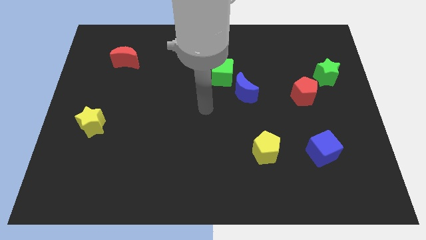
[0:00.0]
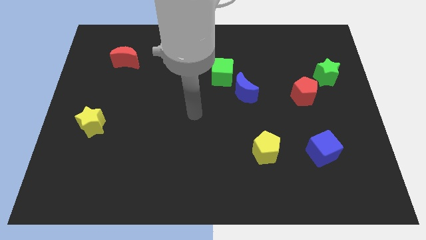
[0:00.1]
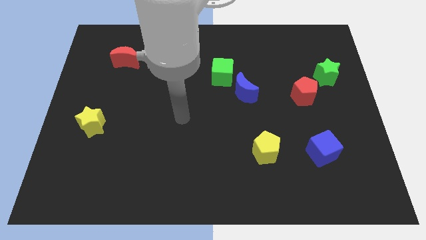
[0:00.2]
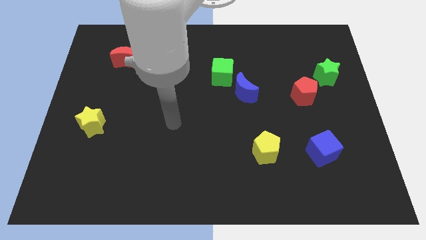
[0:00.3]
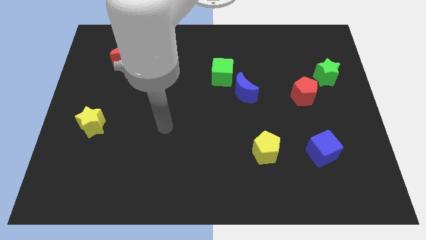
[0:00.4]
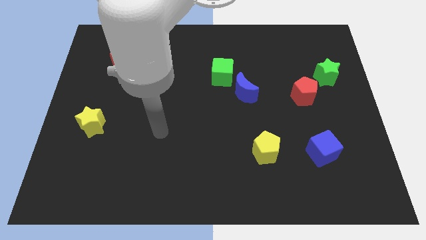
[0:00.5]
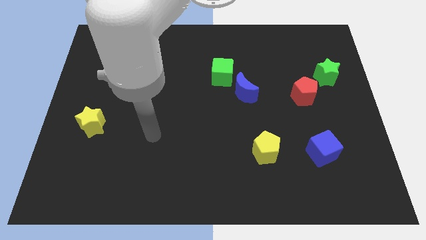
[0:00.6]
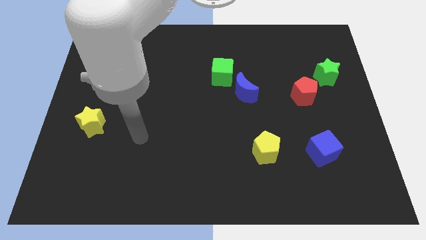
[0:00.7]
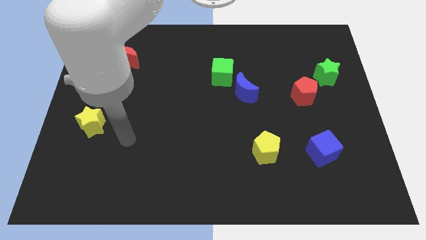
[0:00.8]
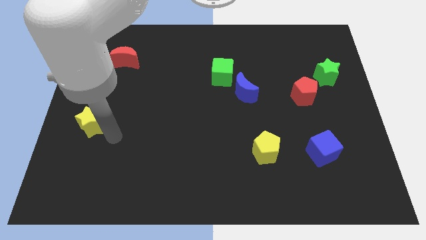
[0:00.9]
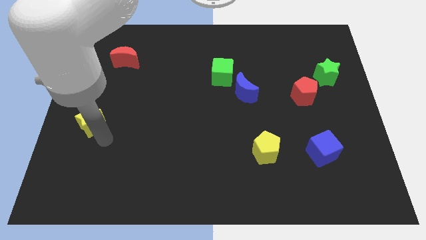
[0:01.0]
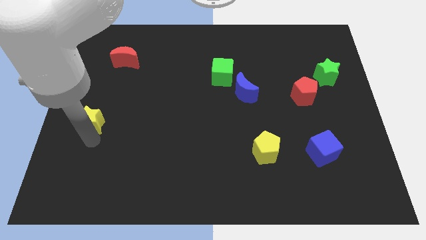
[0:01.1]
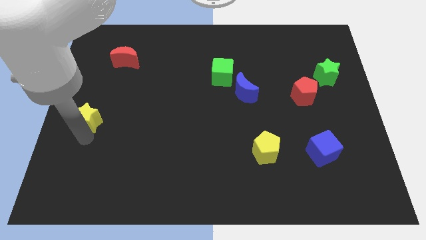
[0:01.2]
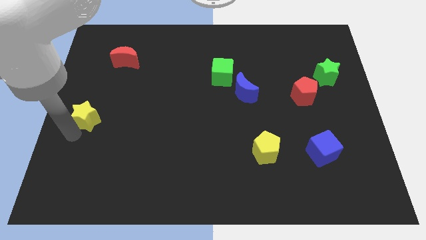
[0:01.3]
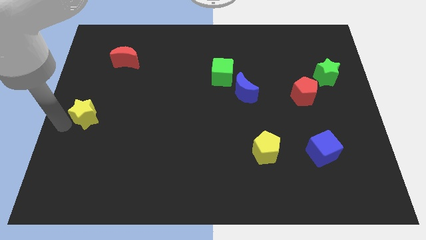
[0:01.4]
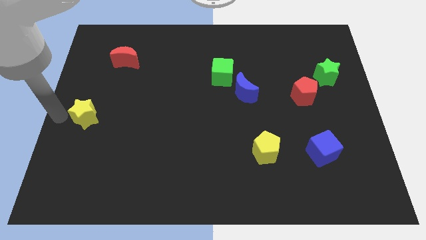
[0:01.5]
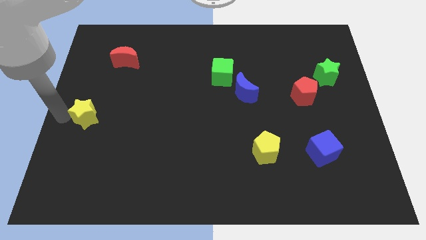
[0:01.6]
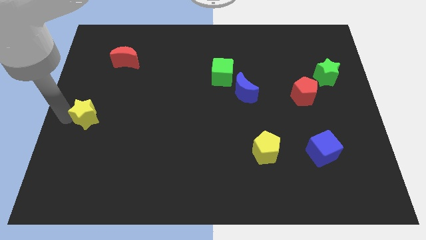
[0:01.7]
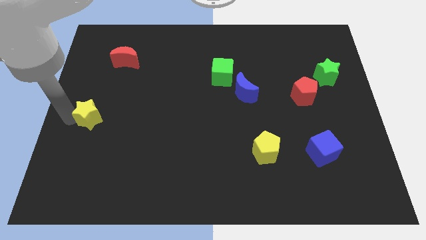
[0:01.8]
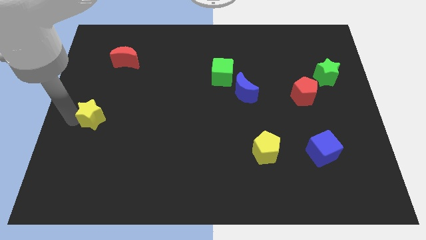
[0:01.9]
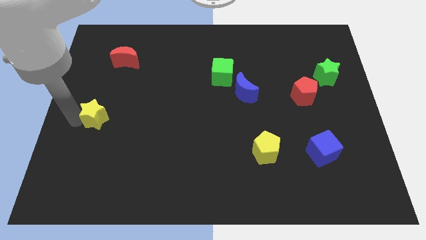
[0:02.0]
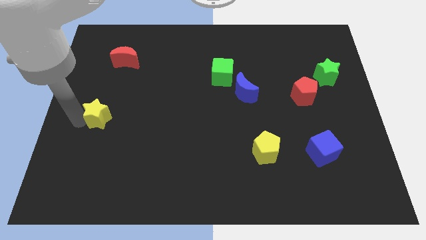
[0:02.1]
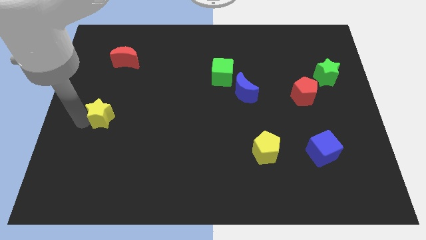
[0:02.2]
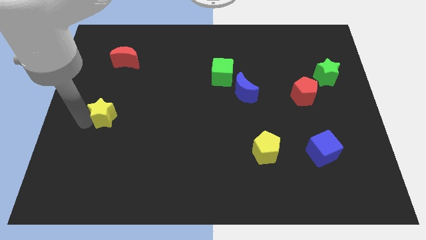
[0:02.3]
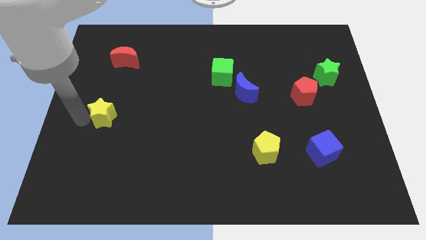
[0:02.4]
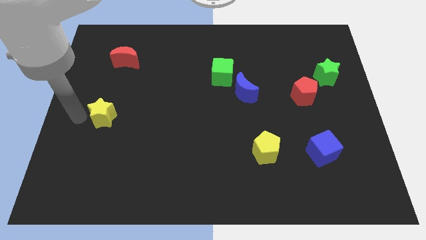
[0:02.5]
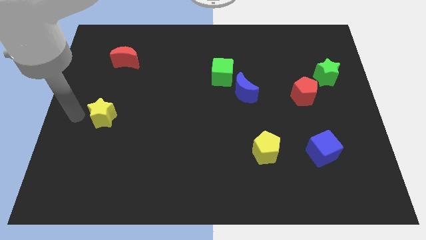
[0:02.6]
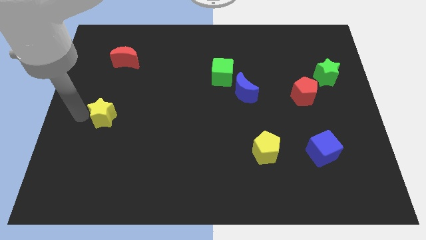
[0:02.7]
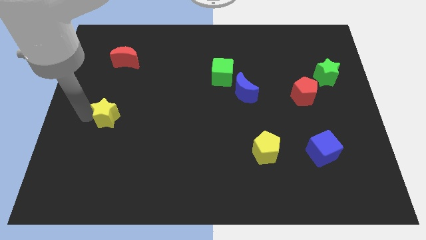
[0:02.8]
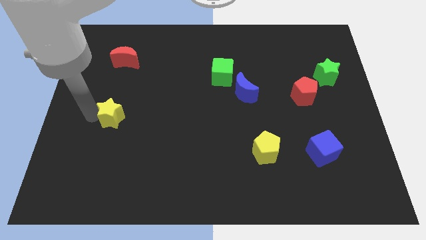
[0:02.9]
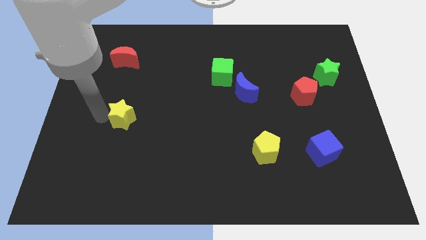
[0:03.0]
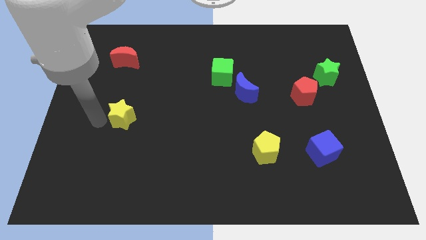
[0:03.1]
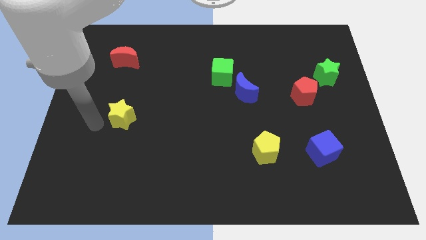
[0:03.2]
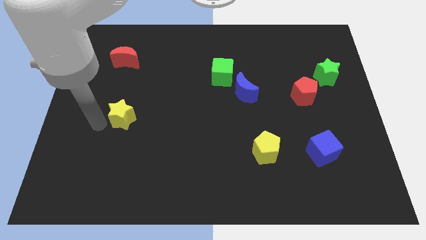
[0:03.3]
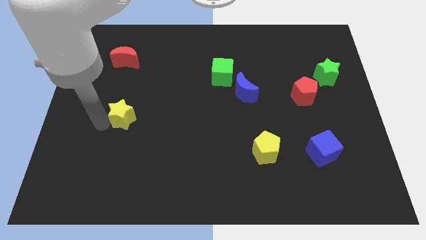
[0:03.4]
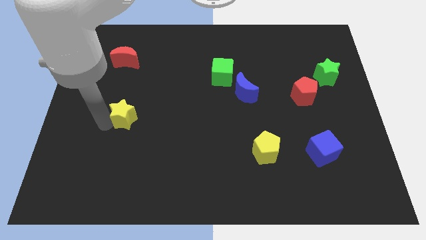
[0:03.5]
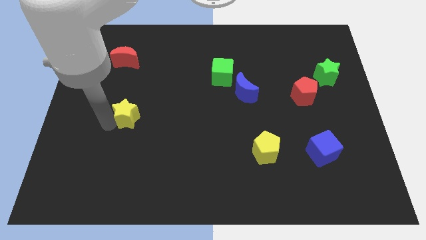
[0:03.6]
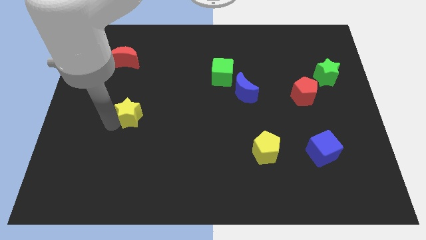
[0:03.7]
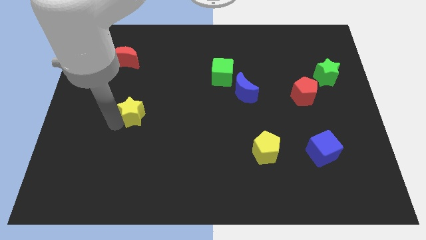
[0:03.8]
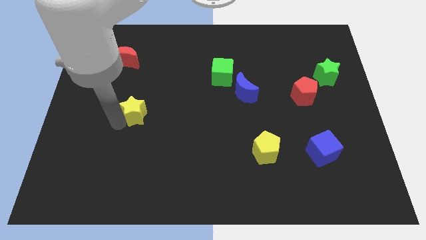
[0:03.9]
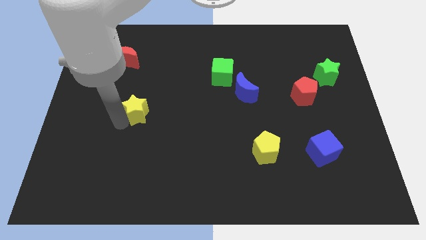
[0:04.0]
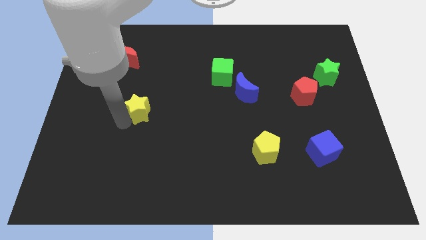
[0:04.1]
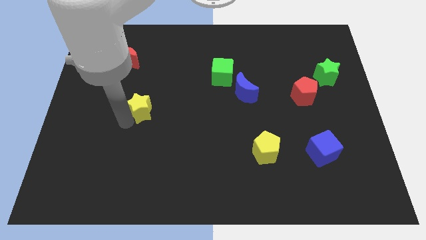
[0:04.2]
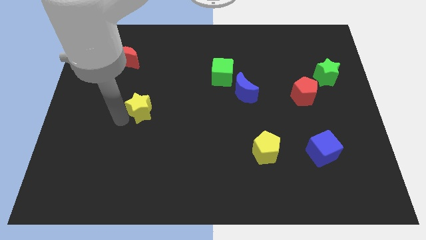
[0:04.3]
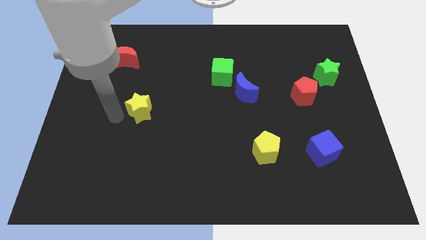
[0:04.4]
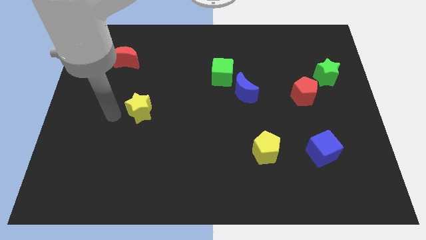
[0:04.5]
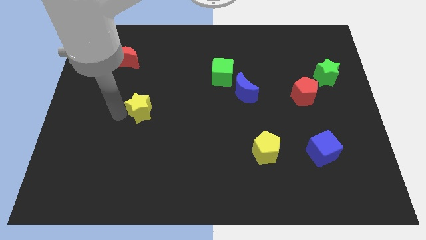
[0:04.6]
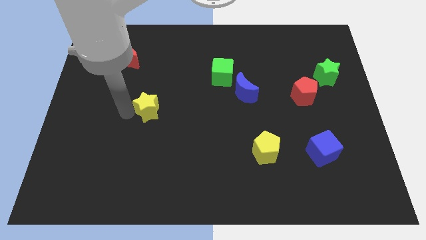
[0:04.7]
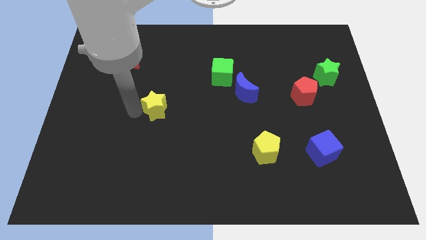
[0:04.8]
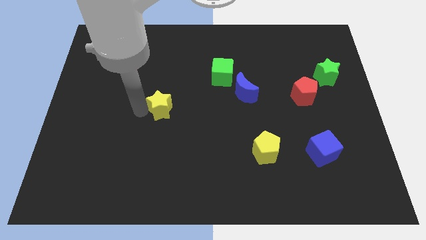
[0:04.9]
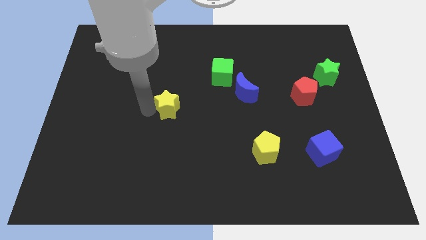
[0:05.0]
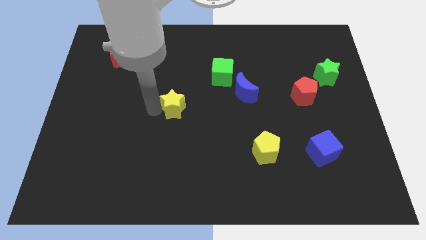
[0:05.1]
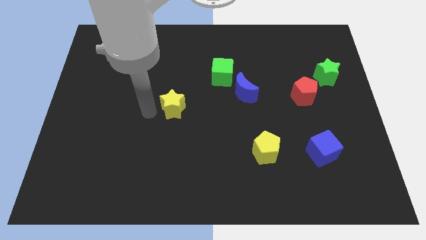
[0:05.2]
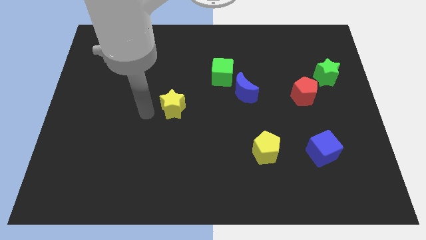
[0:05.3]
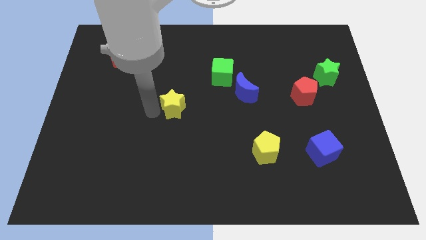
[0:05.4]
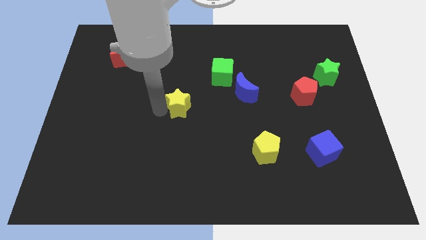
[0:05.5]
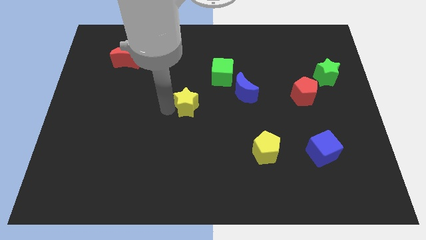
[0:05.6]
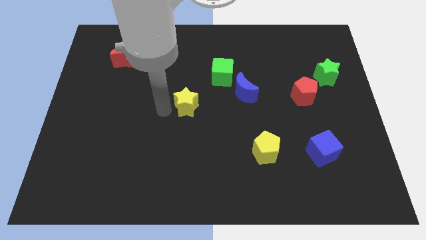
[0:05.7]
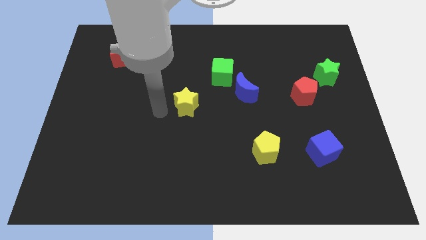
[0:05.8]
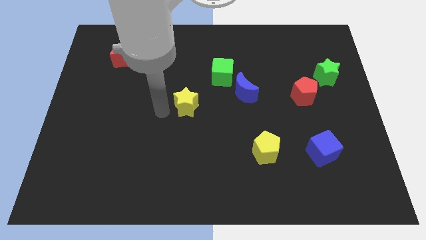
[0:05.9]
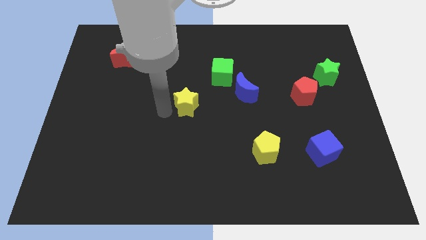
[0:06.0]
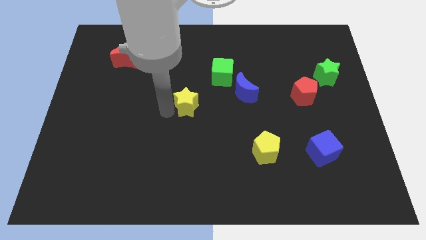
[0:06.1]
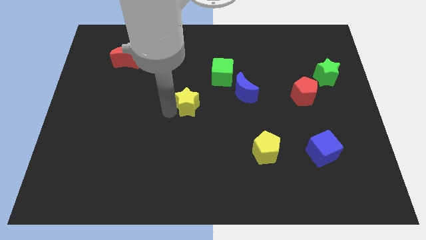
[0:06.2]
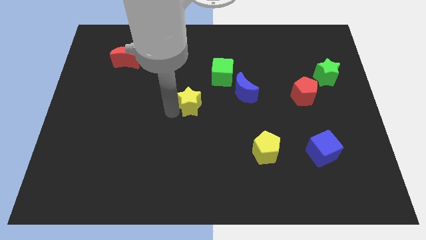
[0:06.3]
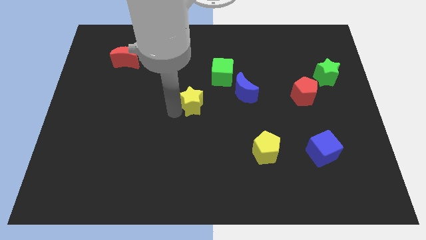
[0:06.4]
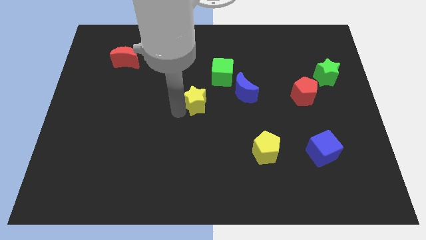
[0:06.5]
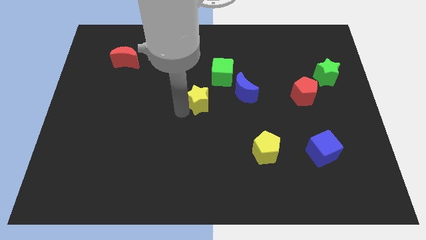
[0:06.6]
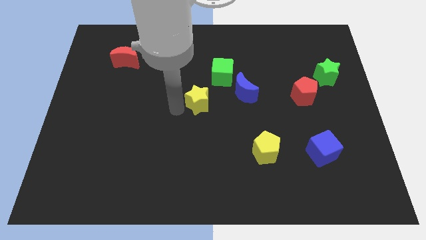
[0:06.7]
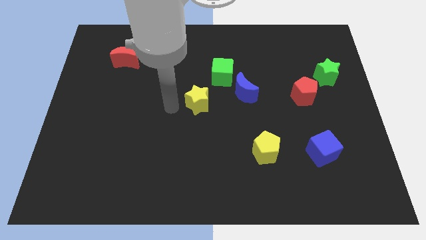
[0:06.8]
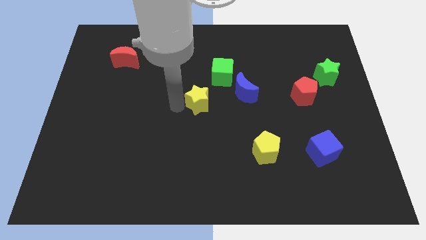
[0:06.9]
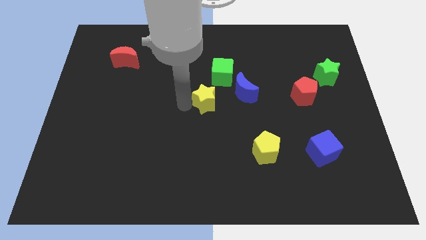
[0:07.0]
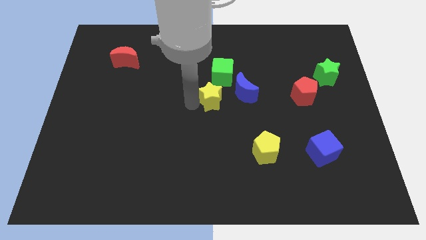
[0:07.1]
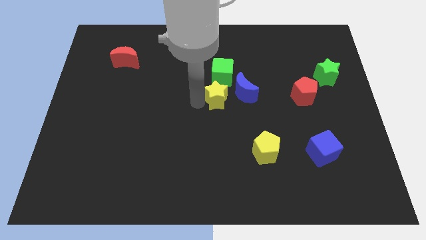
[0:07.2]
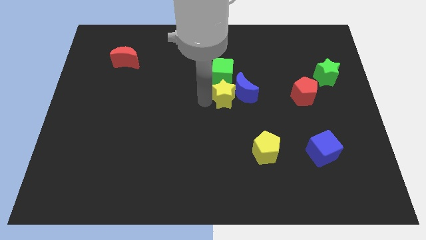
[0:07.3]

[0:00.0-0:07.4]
push the yellow star to the blue moon
